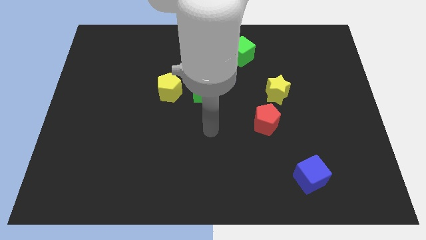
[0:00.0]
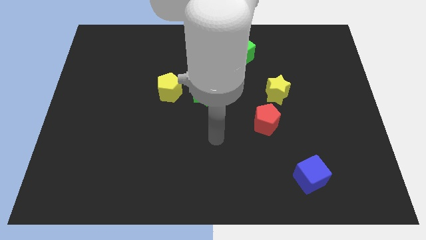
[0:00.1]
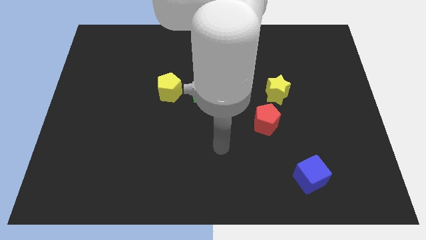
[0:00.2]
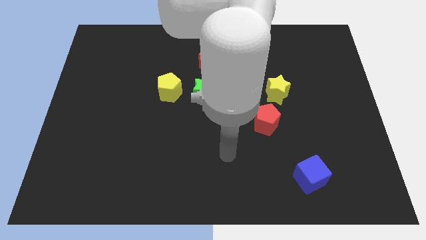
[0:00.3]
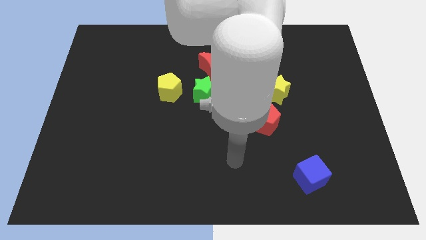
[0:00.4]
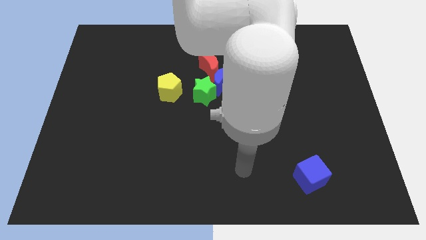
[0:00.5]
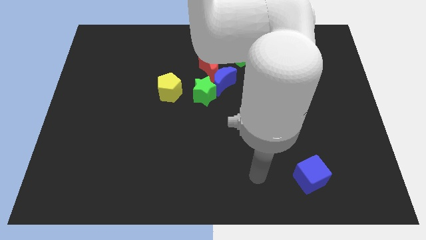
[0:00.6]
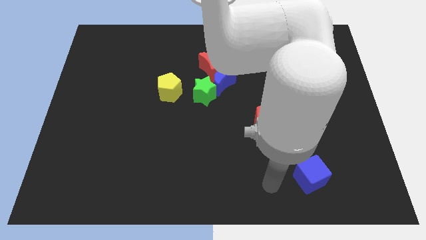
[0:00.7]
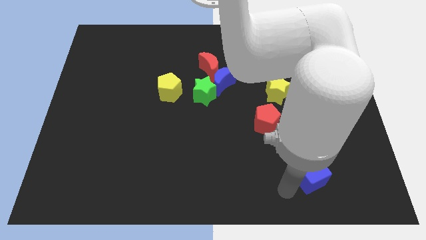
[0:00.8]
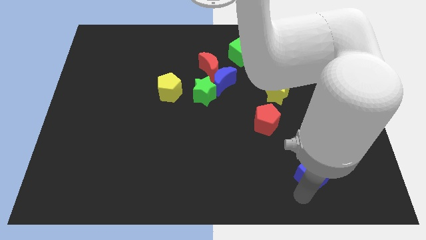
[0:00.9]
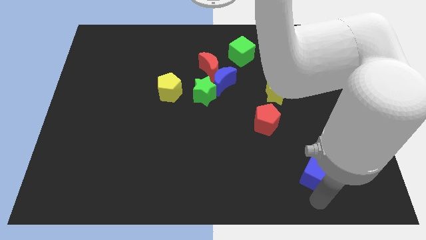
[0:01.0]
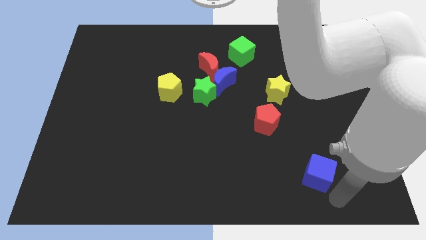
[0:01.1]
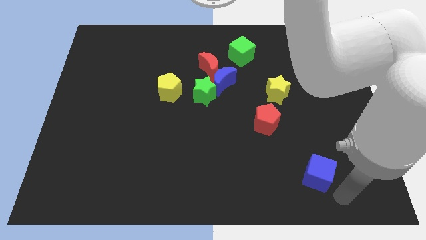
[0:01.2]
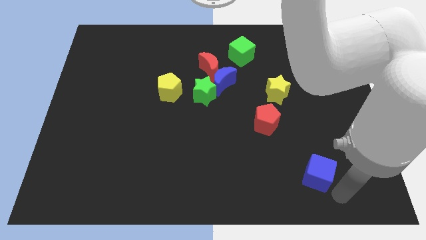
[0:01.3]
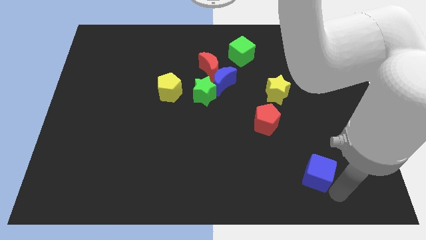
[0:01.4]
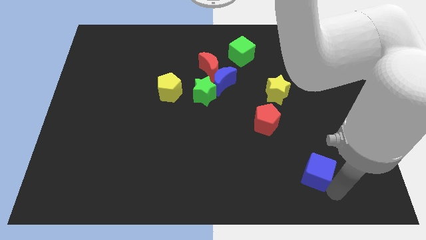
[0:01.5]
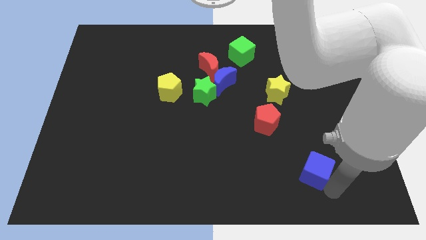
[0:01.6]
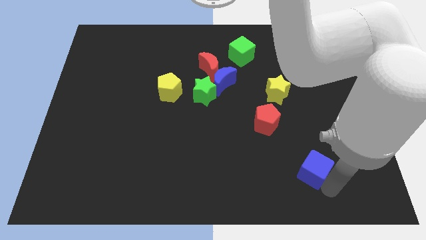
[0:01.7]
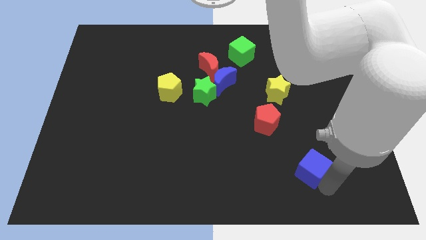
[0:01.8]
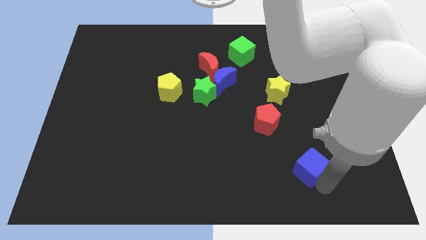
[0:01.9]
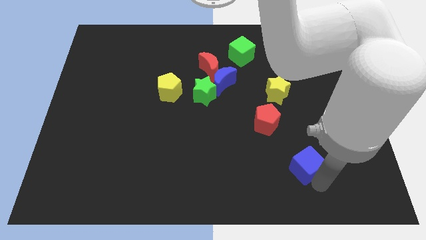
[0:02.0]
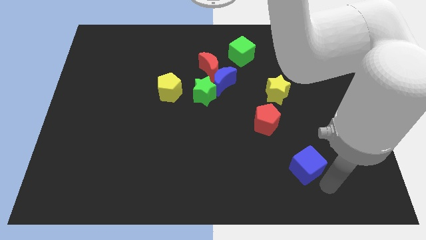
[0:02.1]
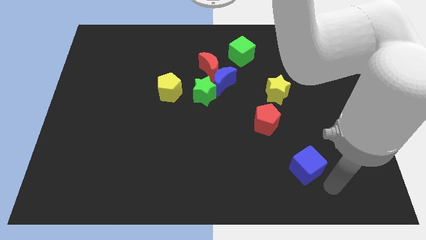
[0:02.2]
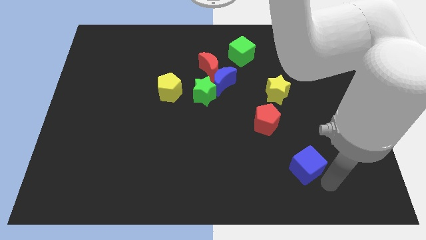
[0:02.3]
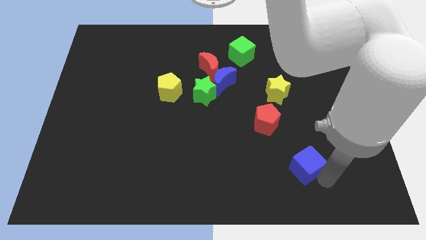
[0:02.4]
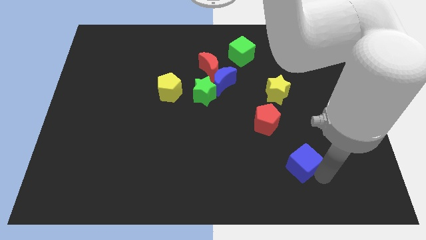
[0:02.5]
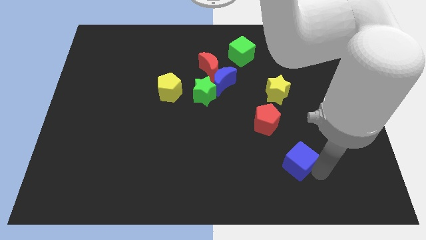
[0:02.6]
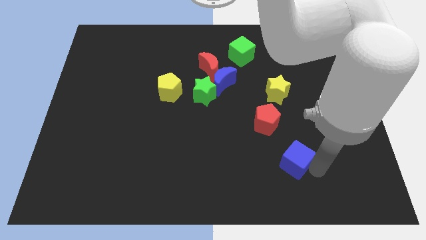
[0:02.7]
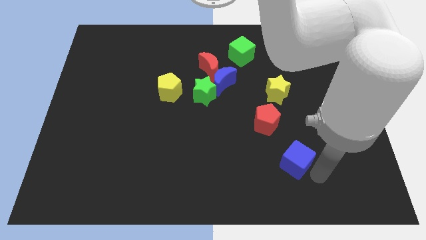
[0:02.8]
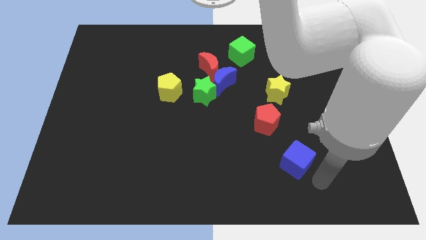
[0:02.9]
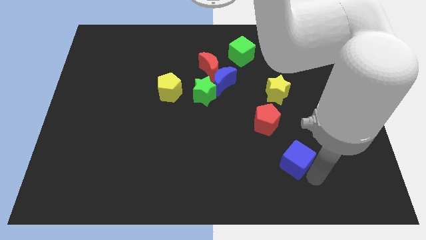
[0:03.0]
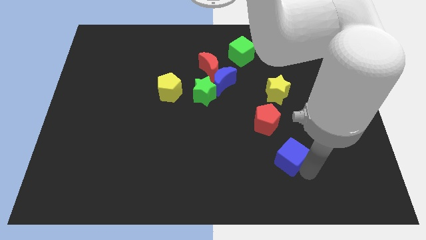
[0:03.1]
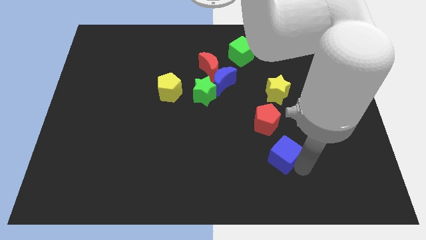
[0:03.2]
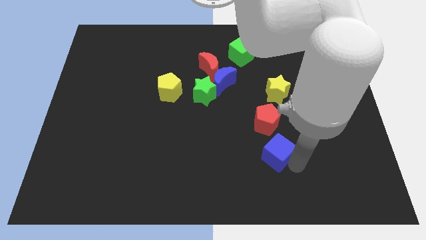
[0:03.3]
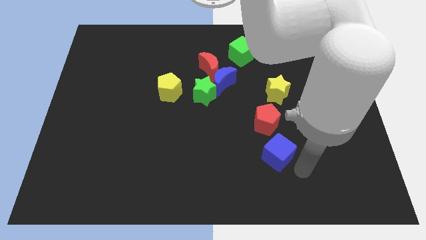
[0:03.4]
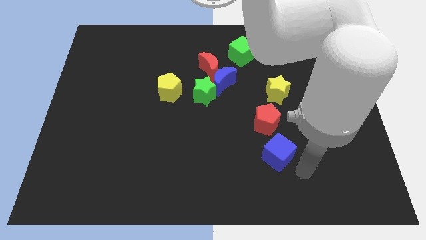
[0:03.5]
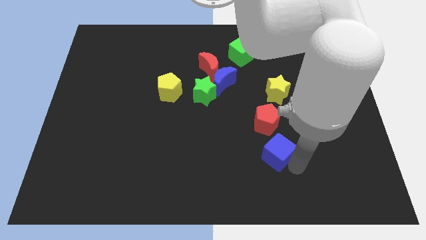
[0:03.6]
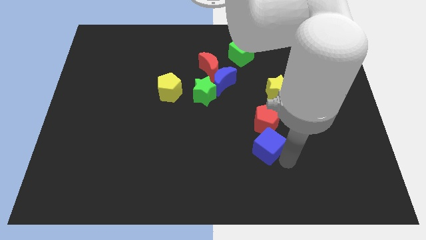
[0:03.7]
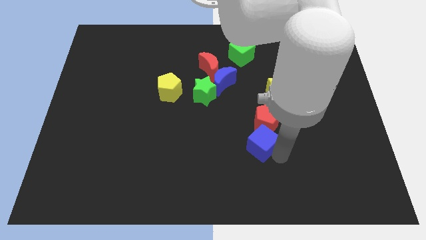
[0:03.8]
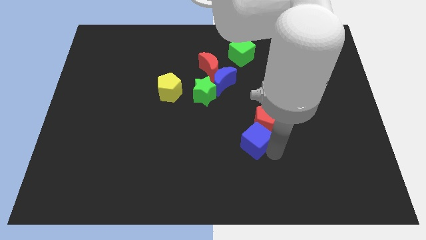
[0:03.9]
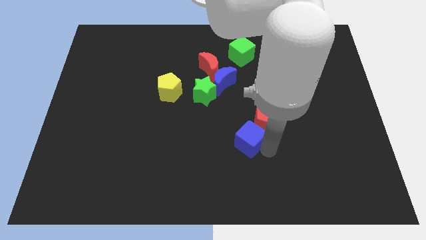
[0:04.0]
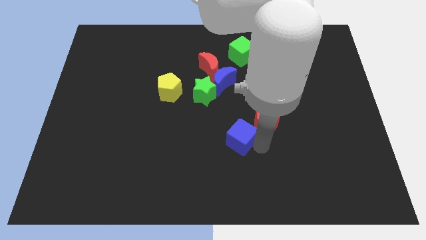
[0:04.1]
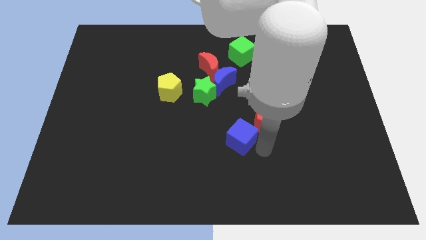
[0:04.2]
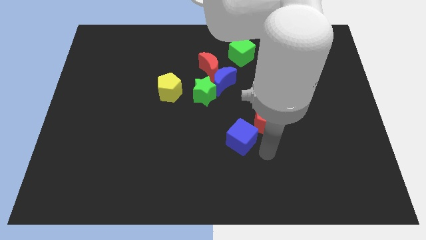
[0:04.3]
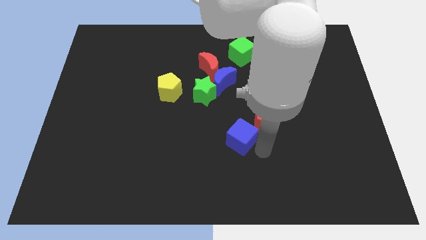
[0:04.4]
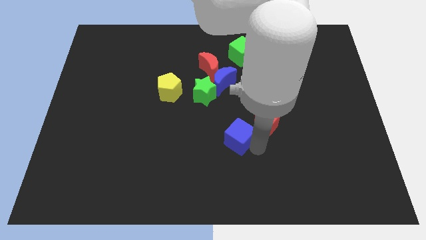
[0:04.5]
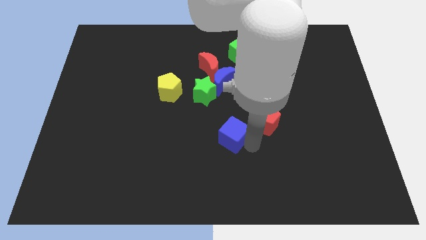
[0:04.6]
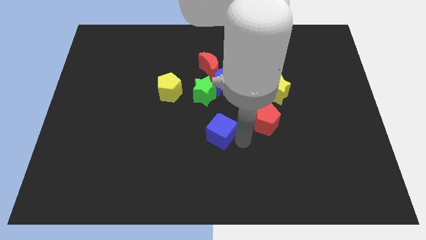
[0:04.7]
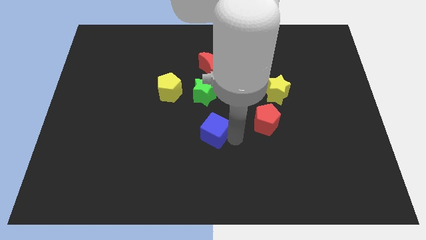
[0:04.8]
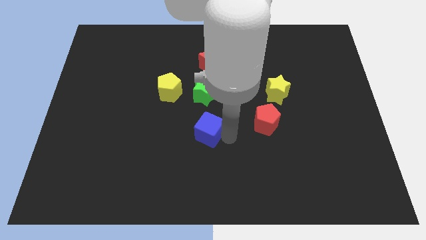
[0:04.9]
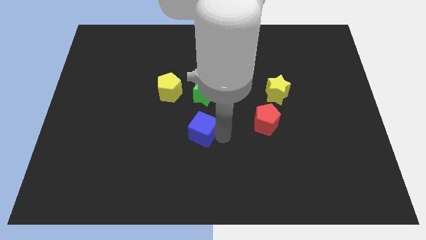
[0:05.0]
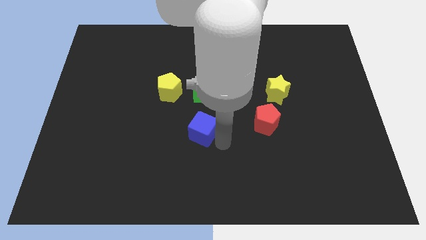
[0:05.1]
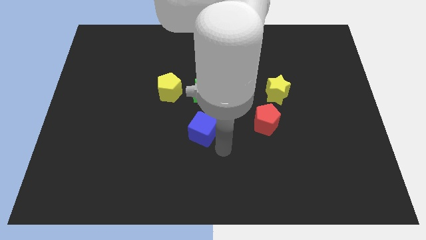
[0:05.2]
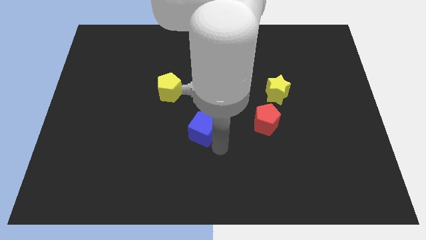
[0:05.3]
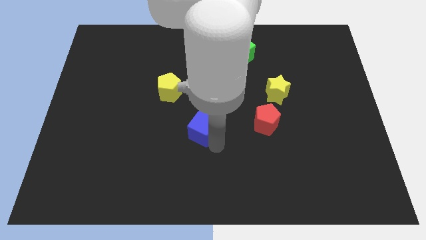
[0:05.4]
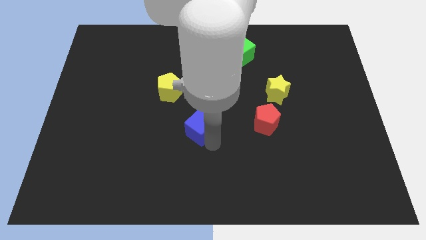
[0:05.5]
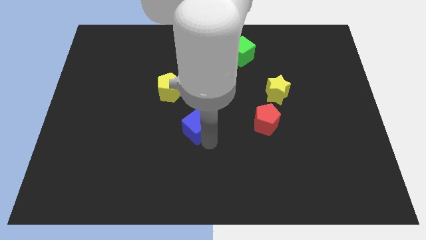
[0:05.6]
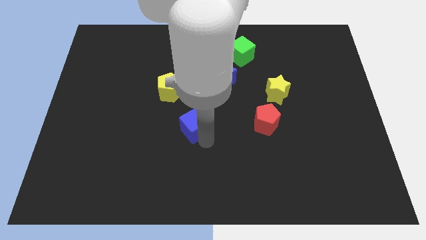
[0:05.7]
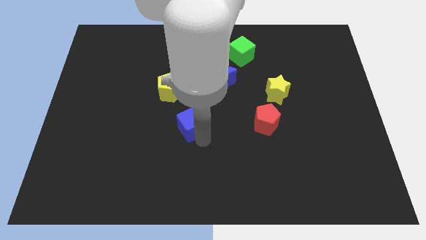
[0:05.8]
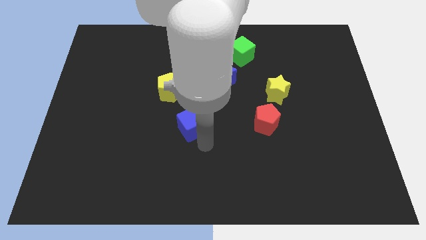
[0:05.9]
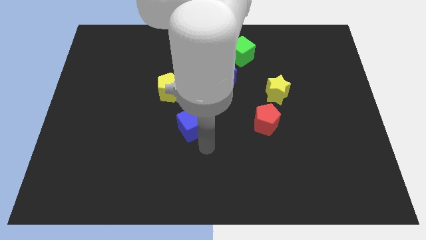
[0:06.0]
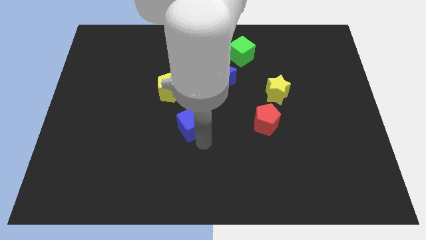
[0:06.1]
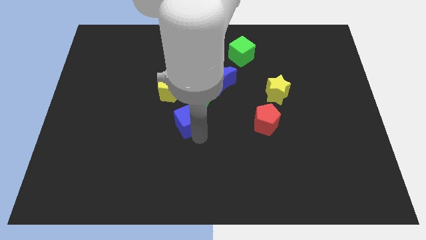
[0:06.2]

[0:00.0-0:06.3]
put the blue cube diagonally down and to the left of the green star

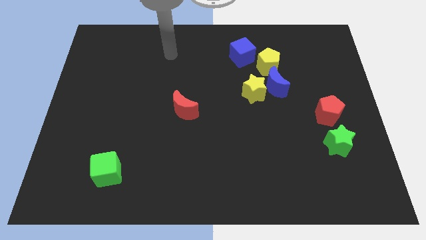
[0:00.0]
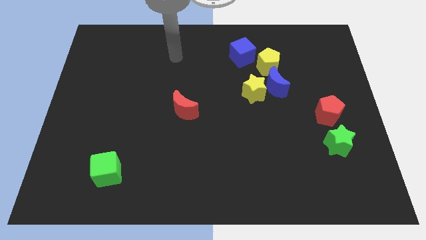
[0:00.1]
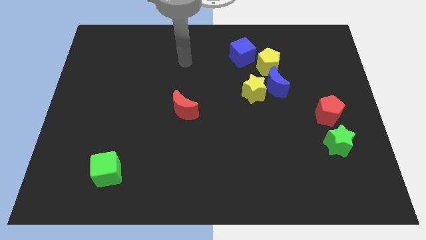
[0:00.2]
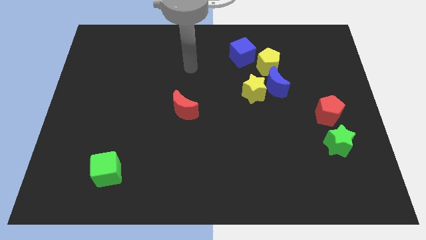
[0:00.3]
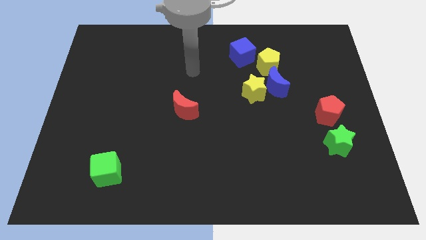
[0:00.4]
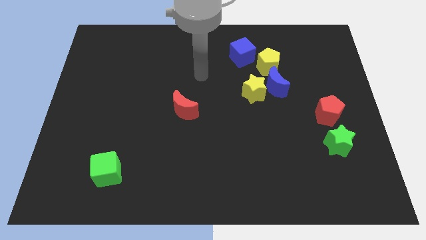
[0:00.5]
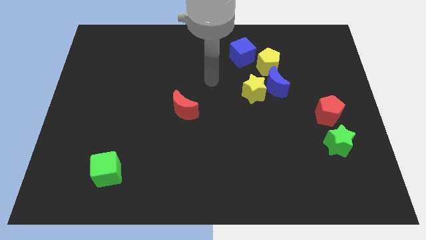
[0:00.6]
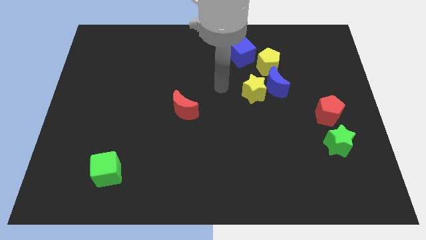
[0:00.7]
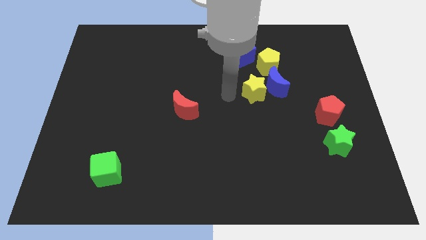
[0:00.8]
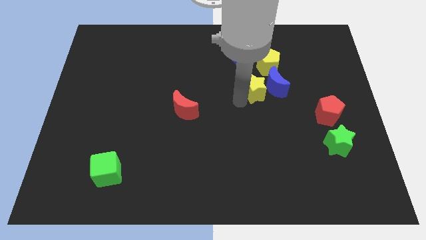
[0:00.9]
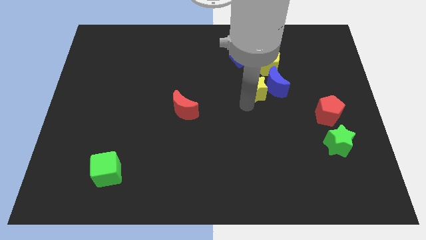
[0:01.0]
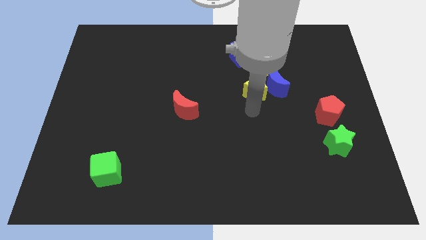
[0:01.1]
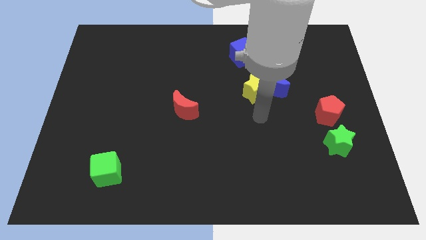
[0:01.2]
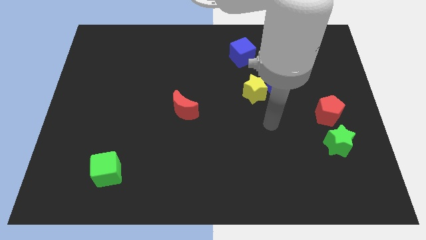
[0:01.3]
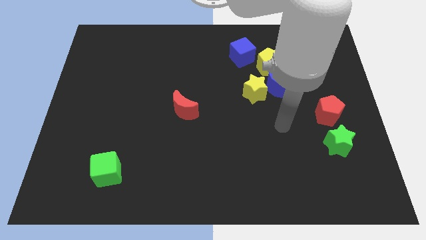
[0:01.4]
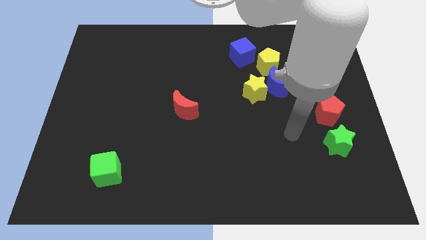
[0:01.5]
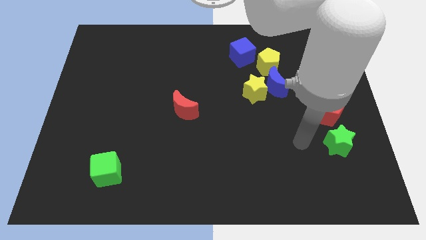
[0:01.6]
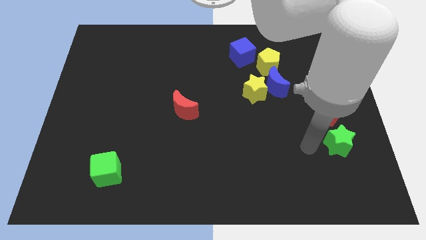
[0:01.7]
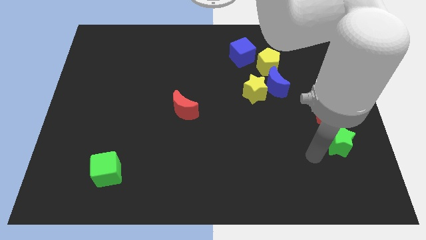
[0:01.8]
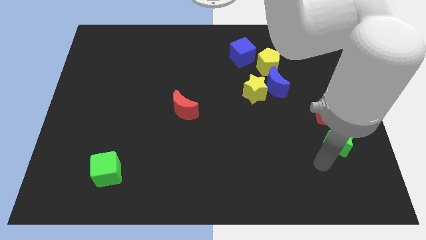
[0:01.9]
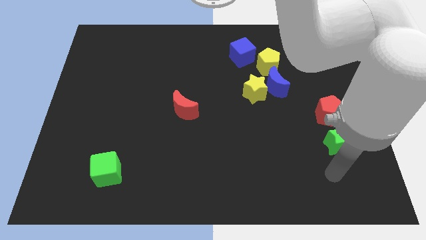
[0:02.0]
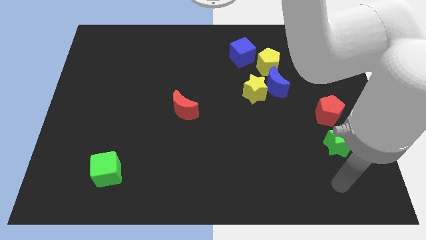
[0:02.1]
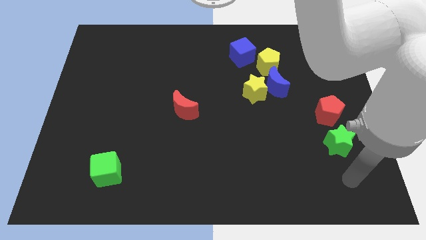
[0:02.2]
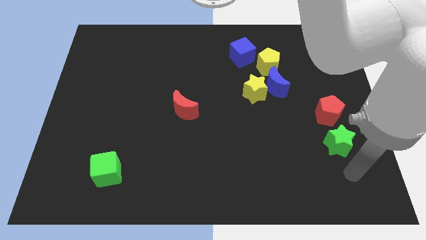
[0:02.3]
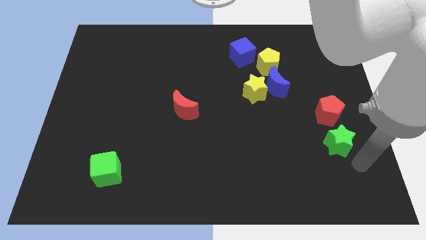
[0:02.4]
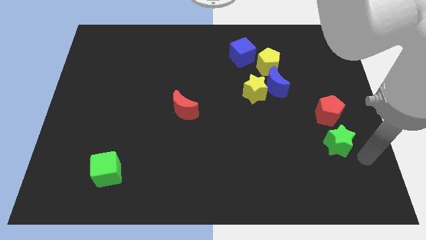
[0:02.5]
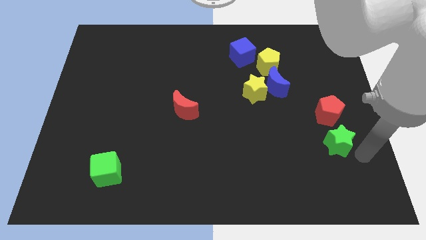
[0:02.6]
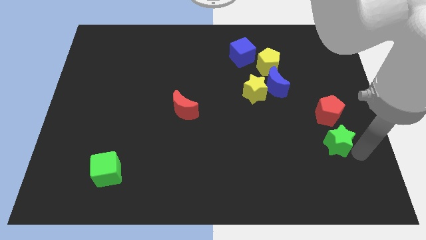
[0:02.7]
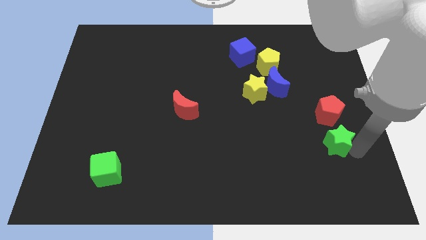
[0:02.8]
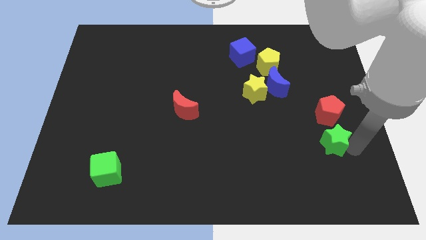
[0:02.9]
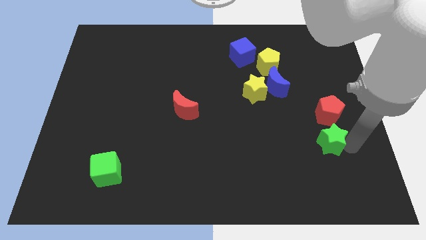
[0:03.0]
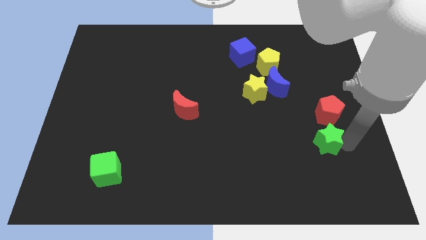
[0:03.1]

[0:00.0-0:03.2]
push the green star to the bottom left side of the red pentagon
